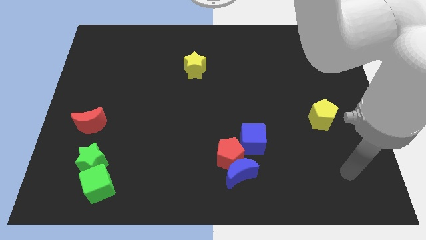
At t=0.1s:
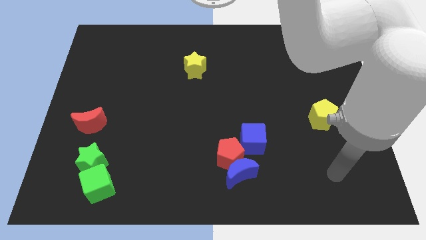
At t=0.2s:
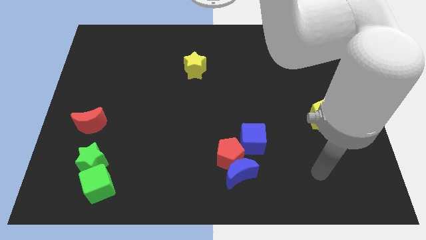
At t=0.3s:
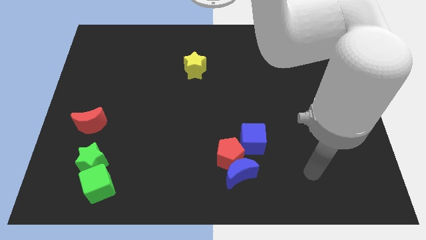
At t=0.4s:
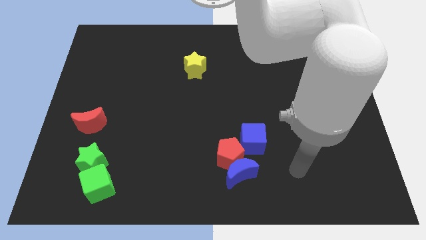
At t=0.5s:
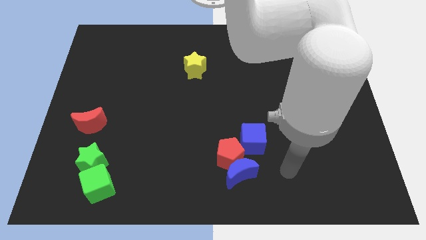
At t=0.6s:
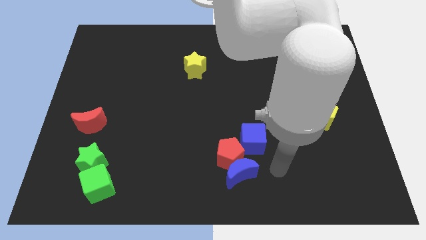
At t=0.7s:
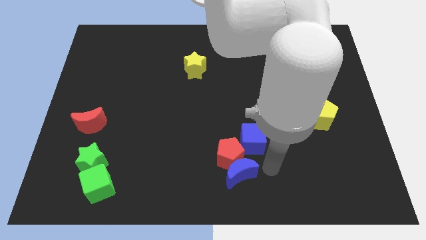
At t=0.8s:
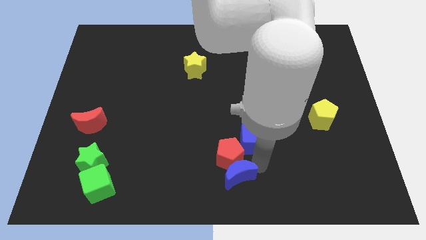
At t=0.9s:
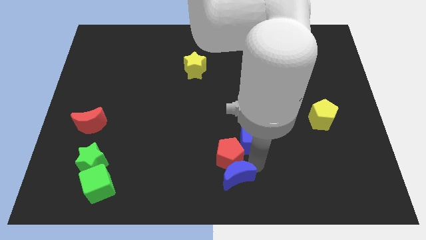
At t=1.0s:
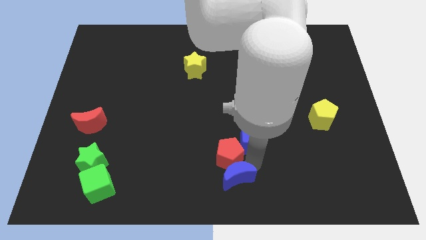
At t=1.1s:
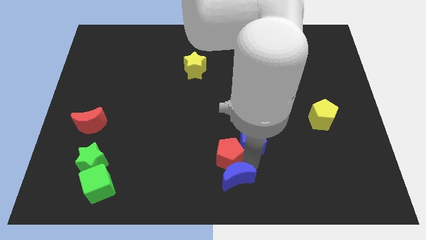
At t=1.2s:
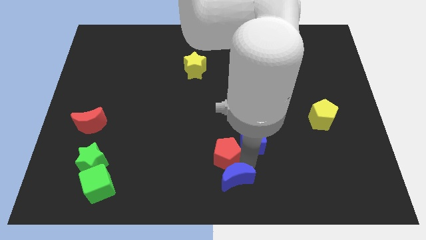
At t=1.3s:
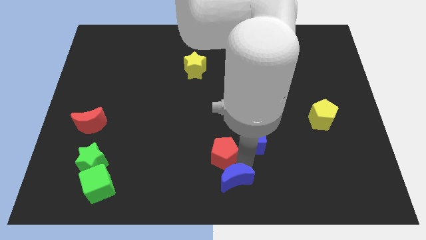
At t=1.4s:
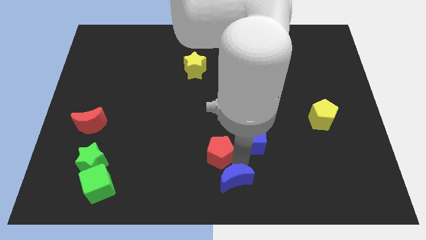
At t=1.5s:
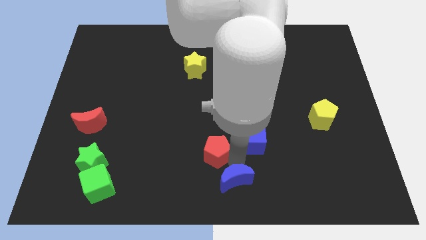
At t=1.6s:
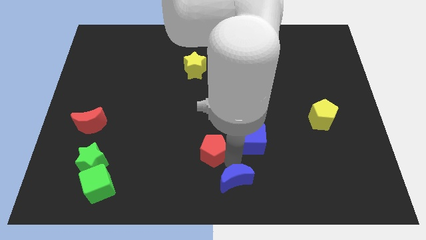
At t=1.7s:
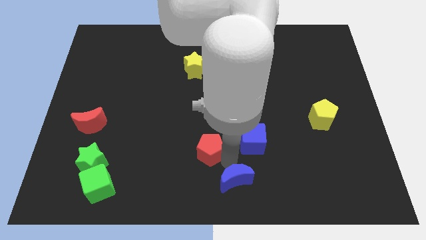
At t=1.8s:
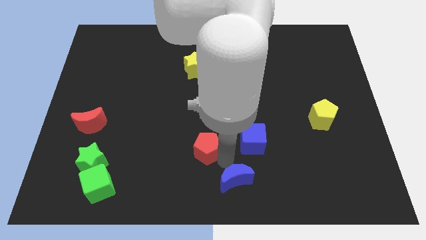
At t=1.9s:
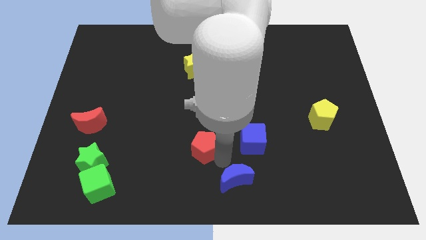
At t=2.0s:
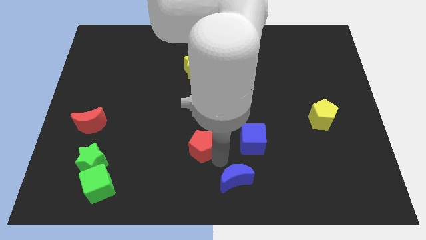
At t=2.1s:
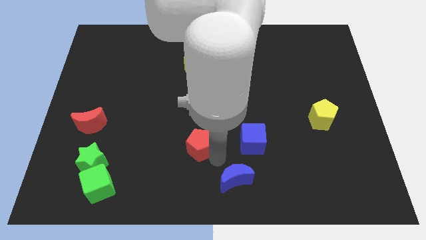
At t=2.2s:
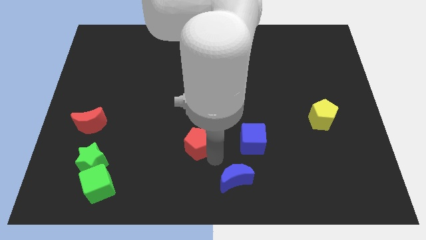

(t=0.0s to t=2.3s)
pull the red pentagon apart from the blue moon and blue cube

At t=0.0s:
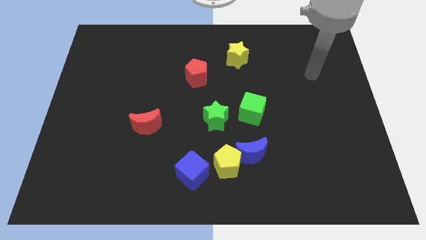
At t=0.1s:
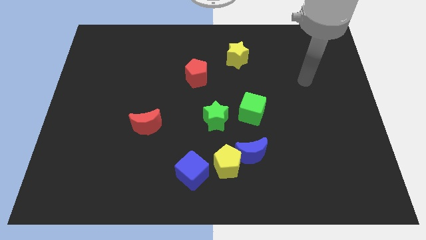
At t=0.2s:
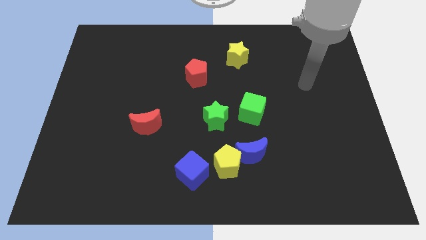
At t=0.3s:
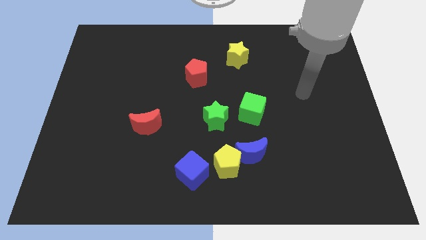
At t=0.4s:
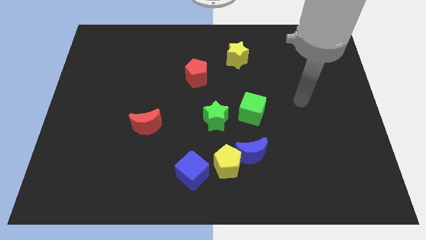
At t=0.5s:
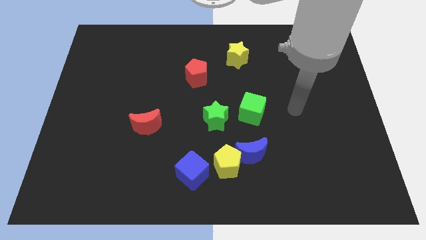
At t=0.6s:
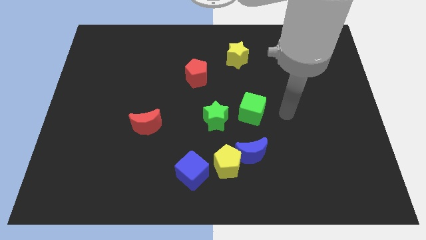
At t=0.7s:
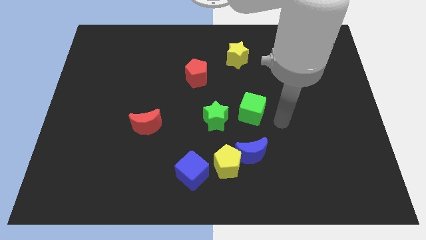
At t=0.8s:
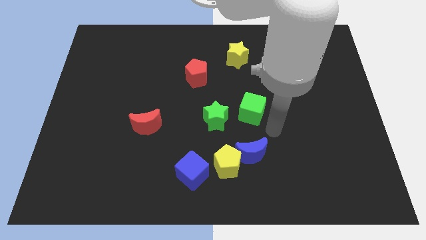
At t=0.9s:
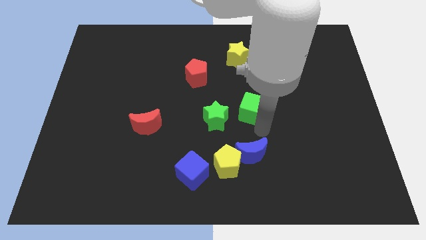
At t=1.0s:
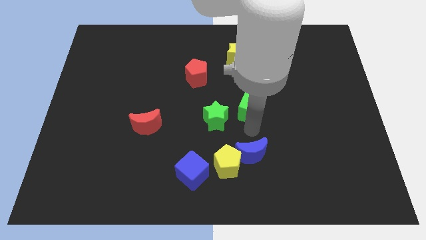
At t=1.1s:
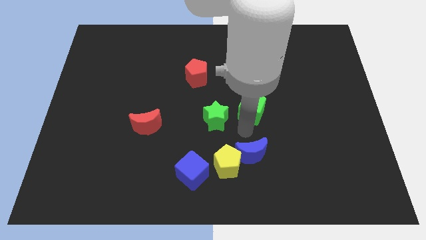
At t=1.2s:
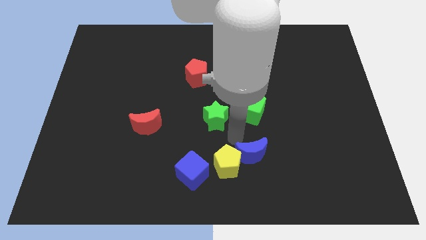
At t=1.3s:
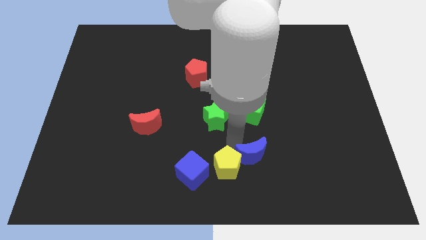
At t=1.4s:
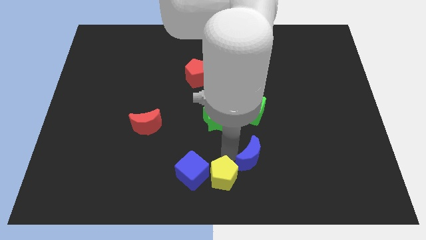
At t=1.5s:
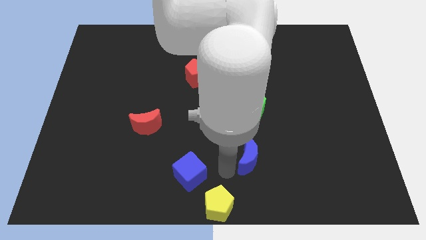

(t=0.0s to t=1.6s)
move the blue moon away from the yellow pentagon

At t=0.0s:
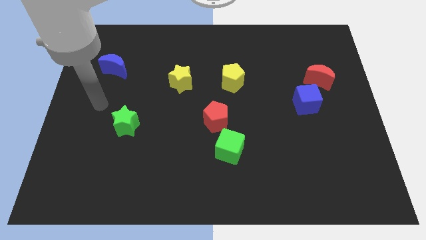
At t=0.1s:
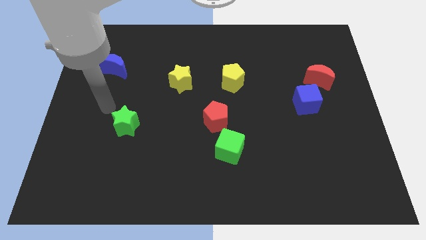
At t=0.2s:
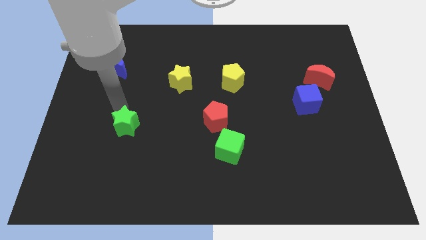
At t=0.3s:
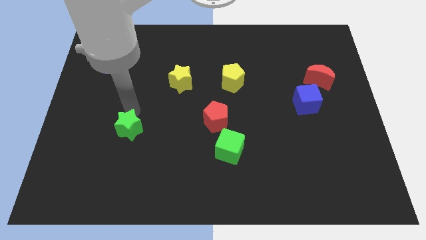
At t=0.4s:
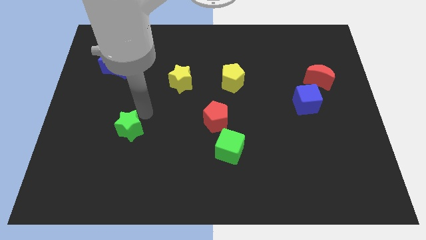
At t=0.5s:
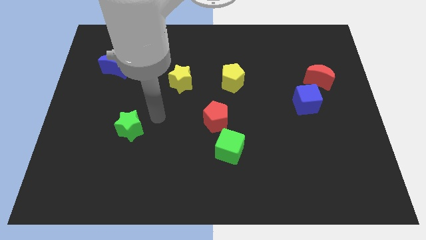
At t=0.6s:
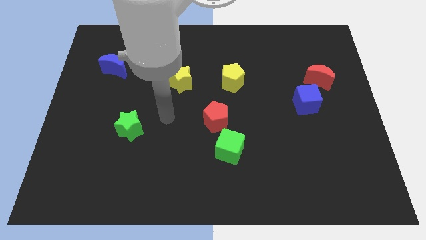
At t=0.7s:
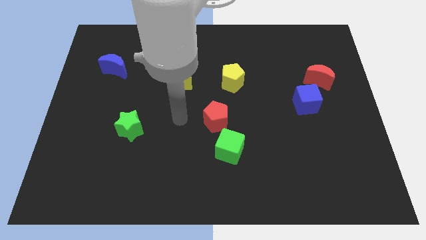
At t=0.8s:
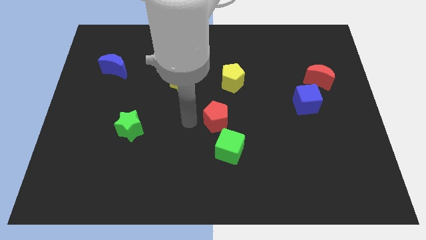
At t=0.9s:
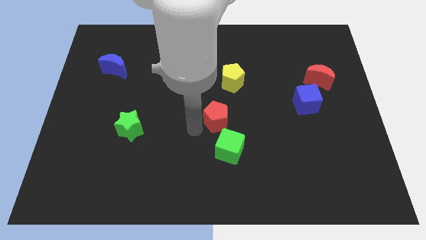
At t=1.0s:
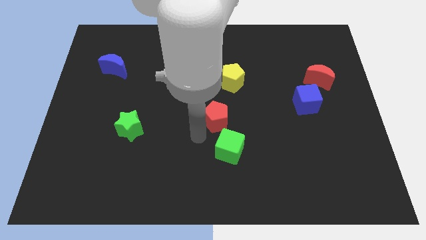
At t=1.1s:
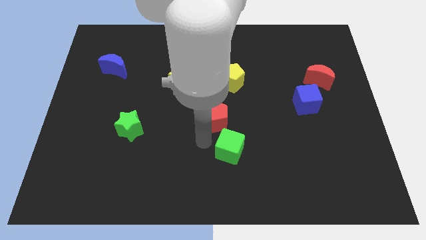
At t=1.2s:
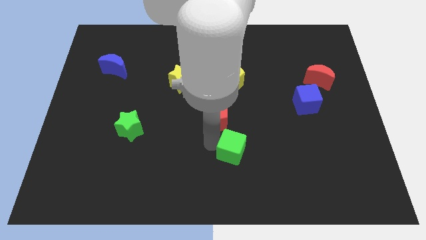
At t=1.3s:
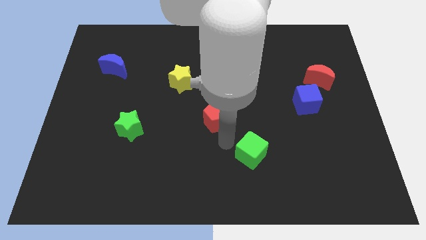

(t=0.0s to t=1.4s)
separate the red pentagon from the green cube

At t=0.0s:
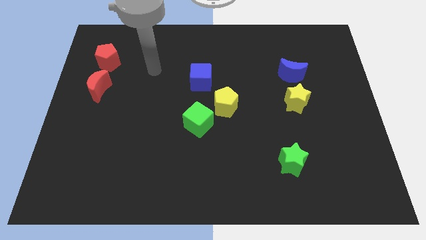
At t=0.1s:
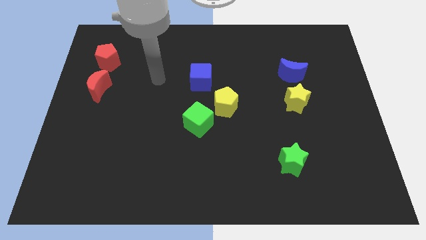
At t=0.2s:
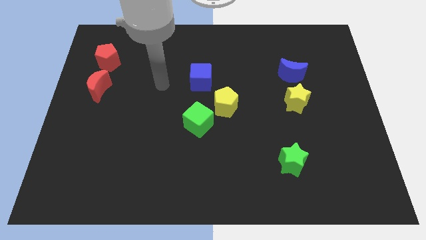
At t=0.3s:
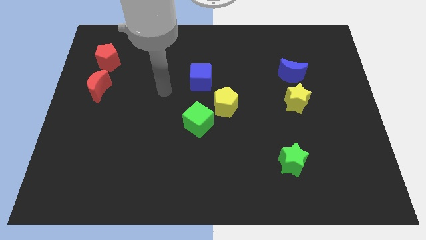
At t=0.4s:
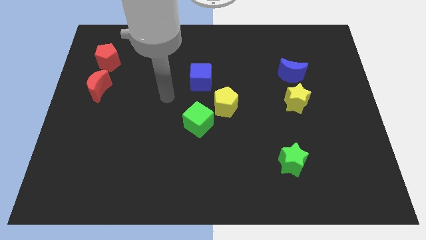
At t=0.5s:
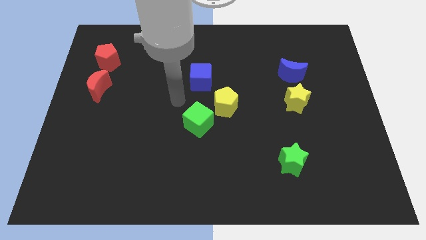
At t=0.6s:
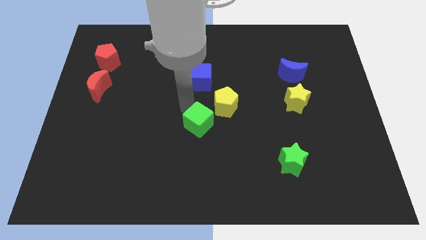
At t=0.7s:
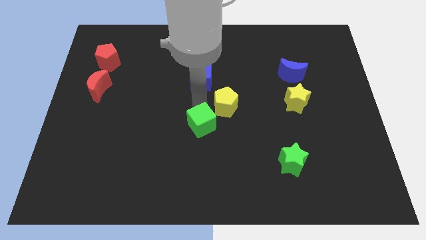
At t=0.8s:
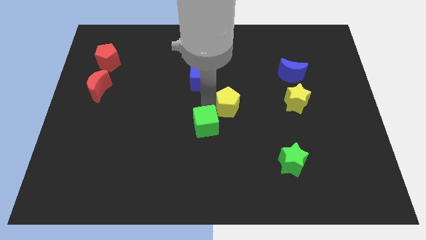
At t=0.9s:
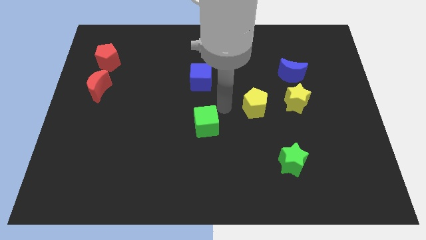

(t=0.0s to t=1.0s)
move the green cube away from the yellow pentagon

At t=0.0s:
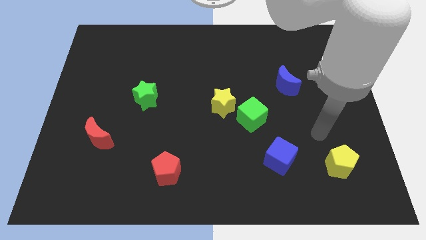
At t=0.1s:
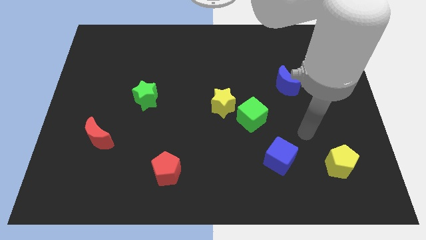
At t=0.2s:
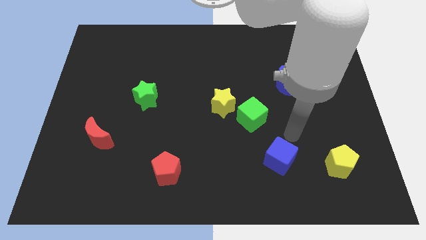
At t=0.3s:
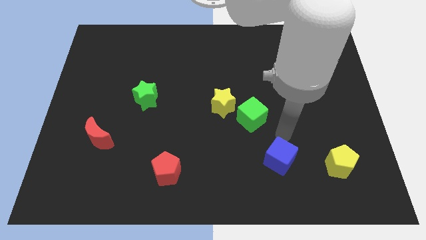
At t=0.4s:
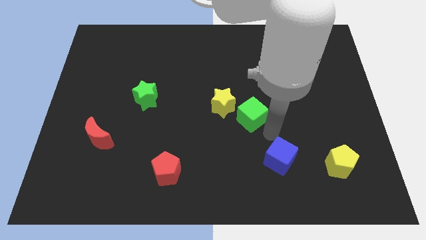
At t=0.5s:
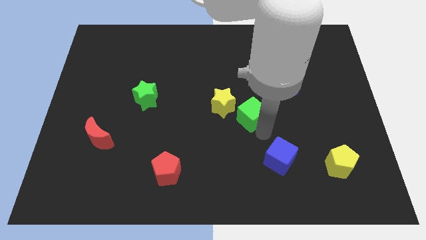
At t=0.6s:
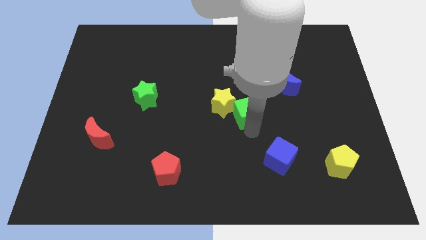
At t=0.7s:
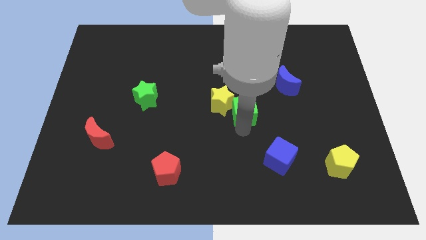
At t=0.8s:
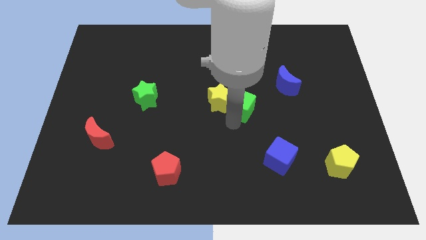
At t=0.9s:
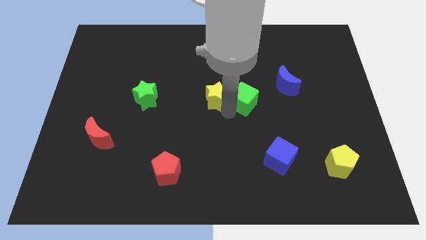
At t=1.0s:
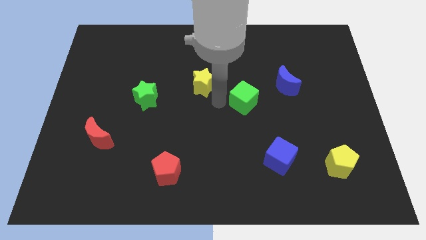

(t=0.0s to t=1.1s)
move the green cube away from the yellow star

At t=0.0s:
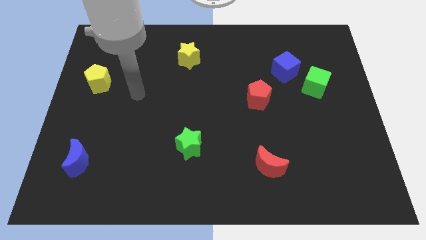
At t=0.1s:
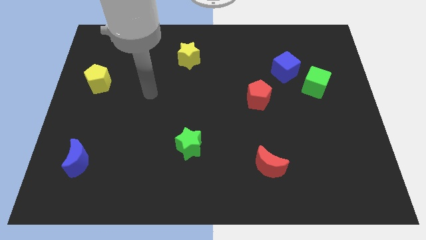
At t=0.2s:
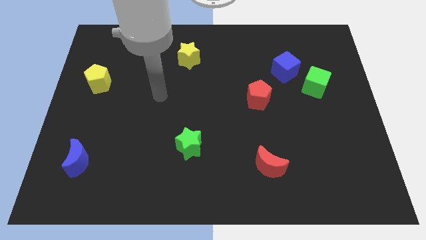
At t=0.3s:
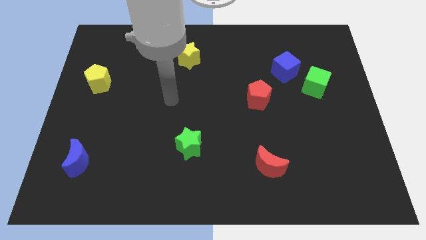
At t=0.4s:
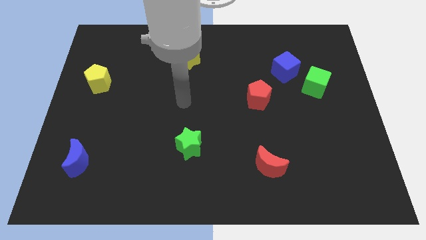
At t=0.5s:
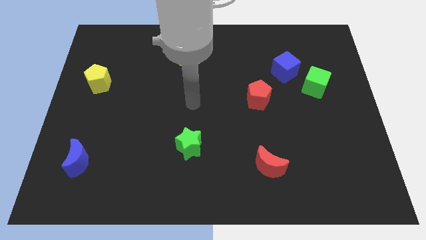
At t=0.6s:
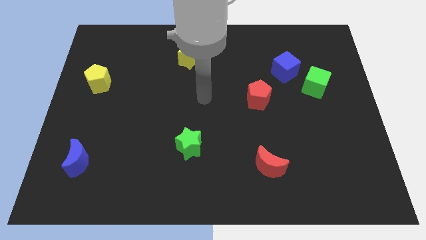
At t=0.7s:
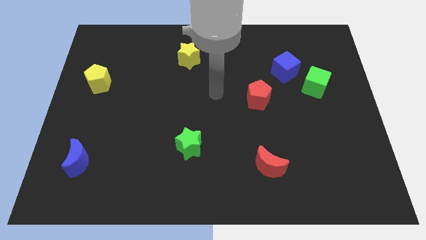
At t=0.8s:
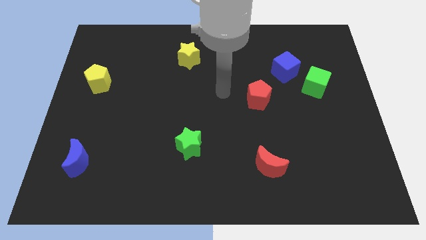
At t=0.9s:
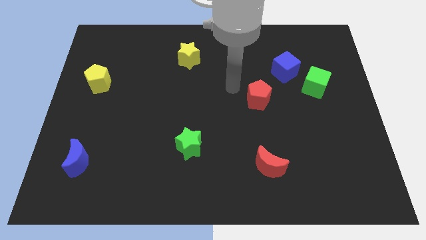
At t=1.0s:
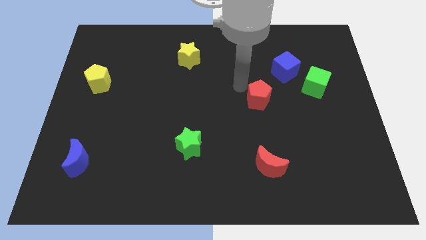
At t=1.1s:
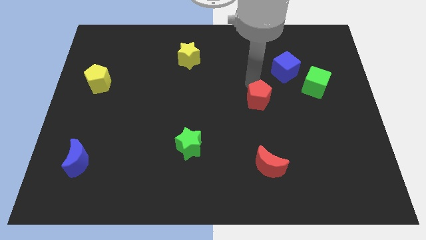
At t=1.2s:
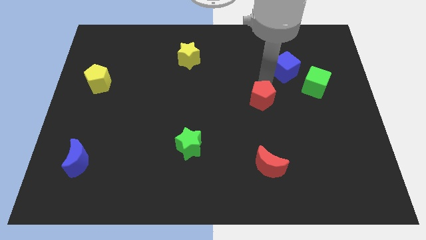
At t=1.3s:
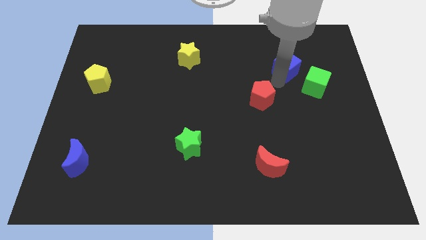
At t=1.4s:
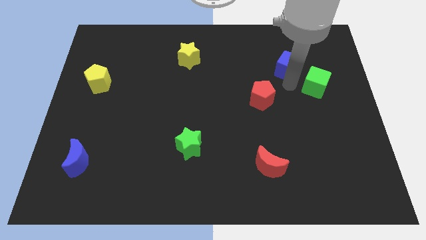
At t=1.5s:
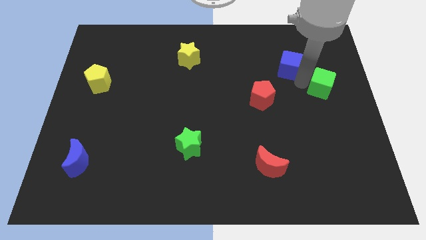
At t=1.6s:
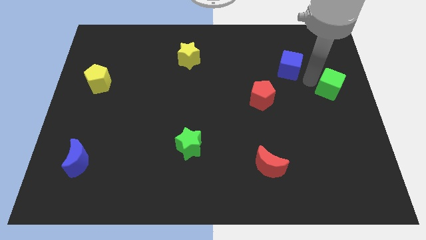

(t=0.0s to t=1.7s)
separate the blue cube from the green cube

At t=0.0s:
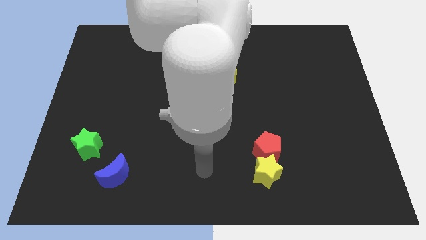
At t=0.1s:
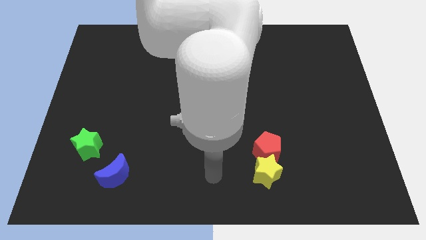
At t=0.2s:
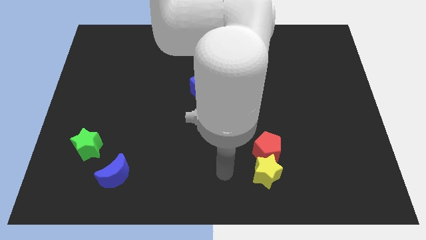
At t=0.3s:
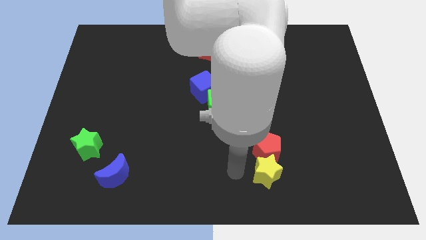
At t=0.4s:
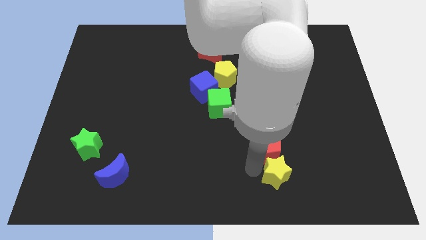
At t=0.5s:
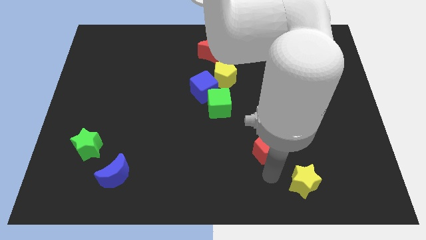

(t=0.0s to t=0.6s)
pull the red pentagon apart from the yellow star
